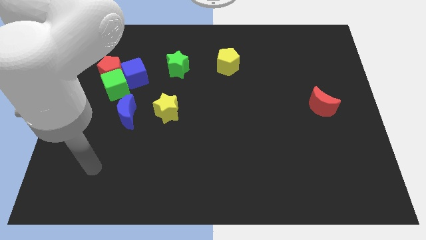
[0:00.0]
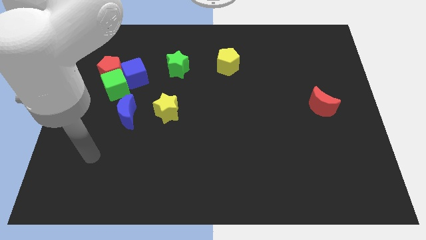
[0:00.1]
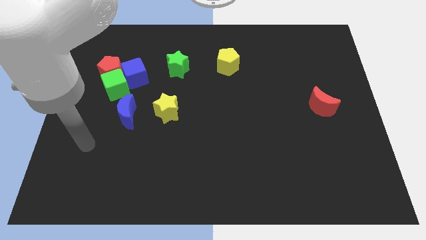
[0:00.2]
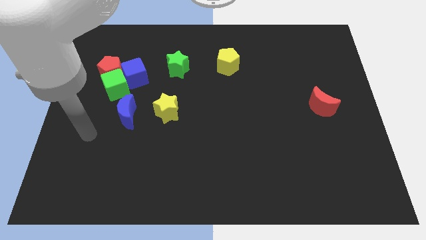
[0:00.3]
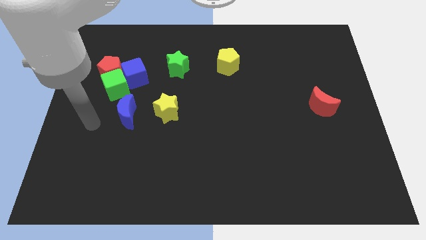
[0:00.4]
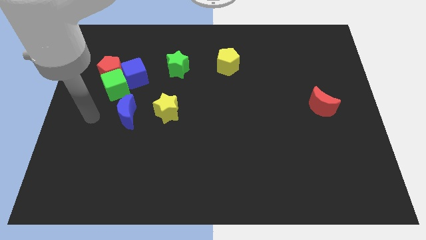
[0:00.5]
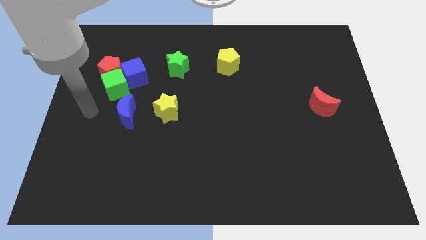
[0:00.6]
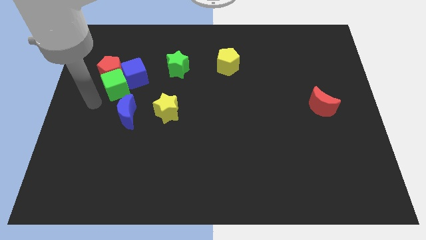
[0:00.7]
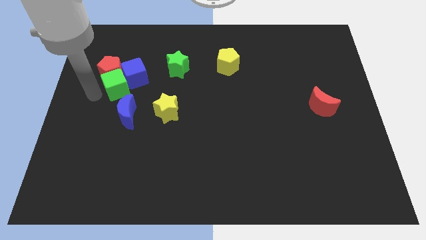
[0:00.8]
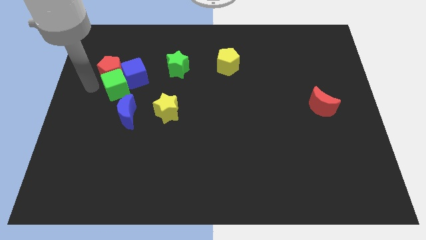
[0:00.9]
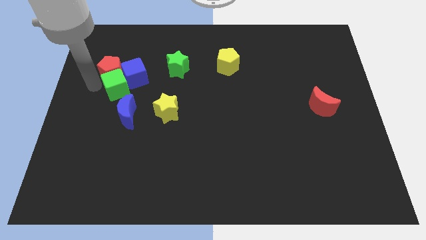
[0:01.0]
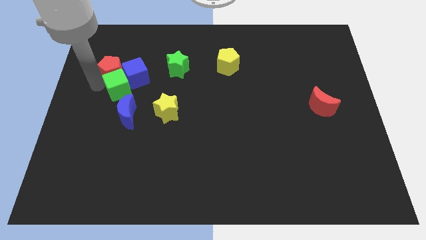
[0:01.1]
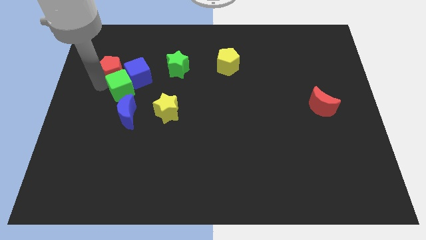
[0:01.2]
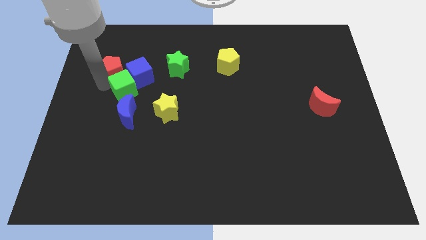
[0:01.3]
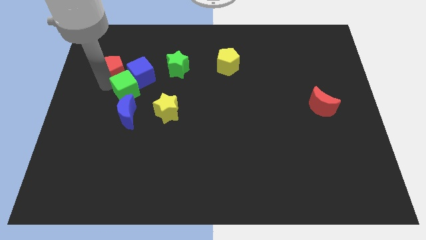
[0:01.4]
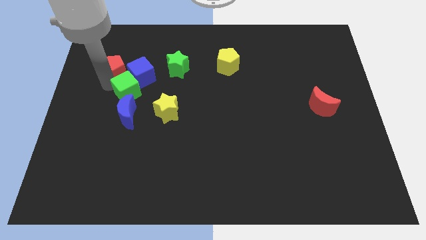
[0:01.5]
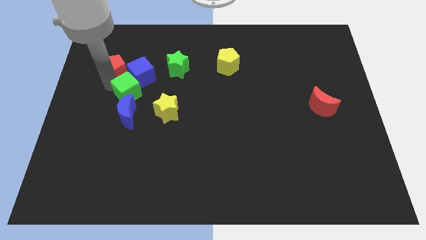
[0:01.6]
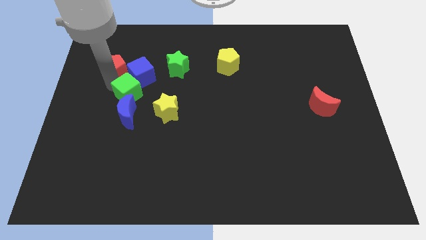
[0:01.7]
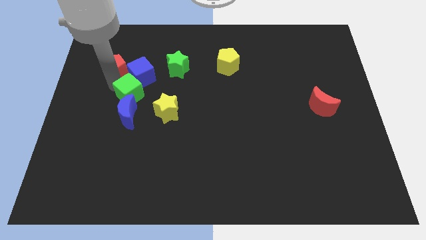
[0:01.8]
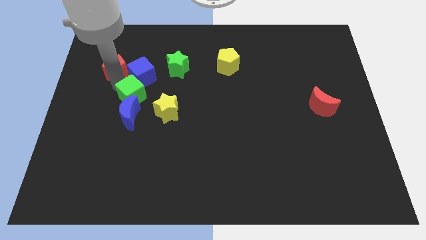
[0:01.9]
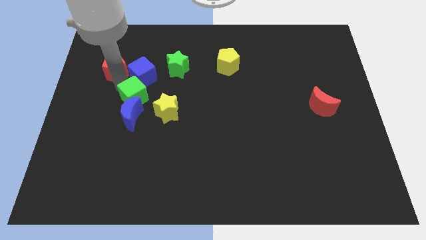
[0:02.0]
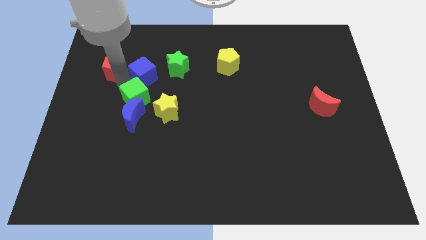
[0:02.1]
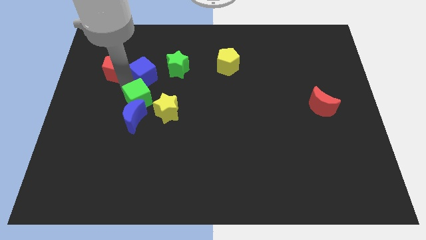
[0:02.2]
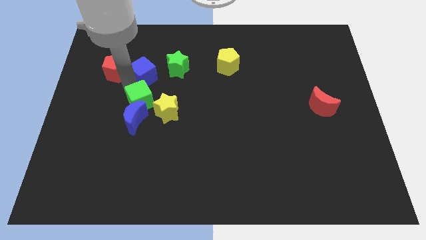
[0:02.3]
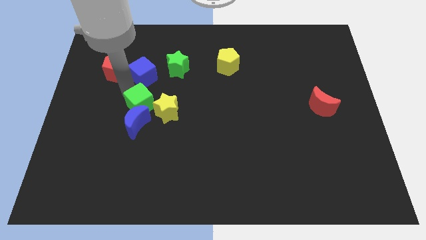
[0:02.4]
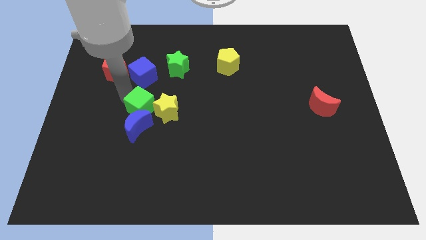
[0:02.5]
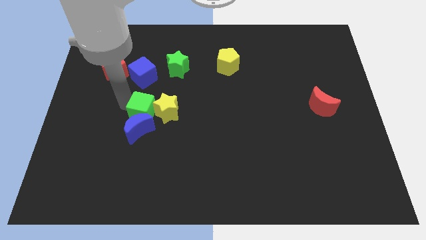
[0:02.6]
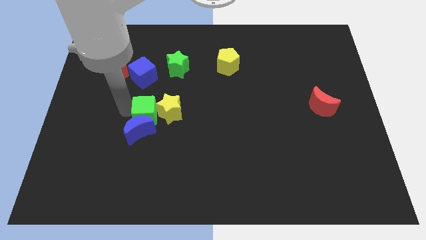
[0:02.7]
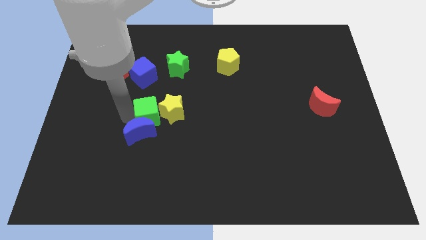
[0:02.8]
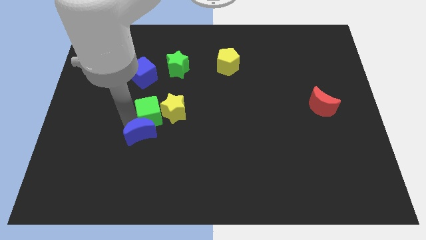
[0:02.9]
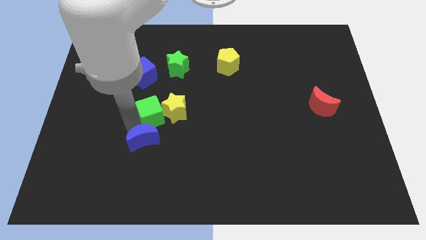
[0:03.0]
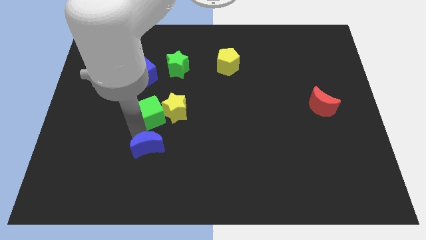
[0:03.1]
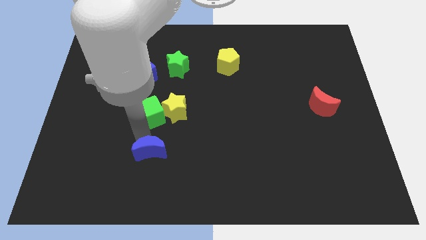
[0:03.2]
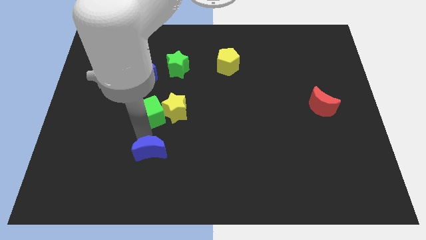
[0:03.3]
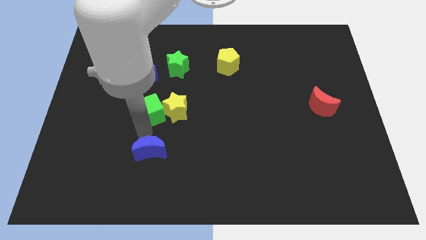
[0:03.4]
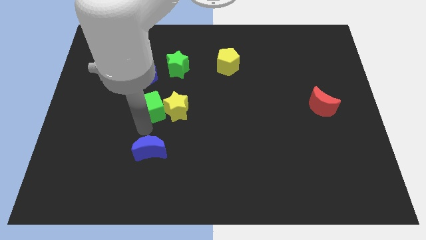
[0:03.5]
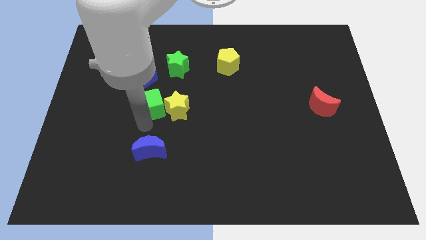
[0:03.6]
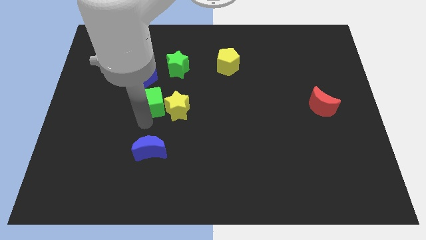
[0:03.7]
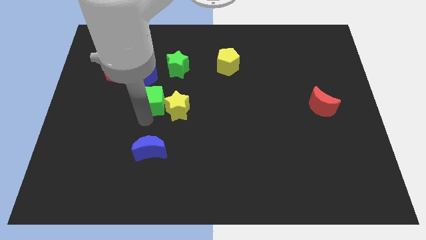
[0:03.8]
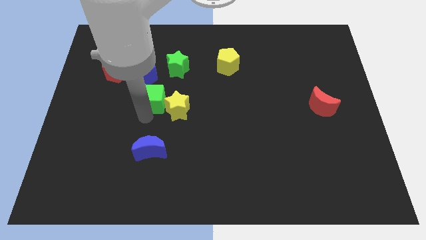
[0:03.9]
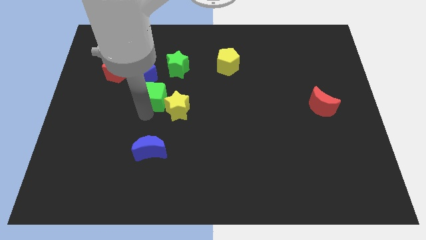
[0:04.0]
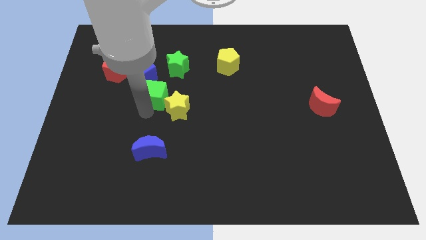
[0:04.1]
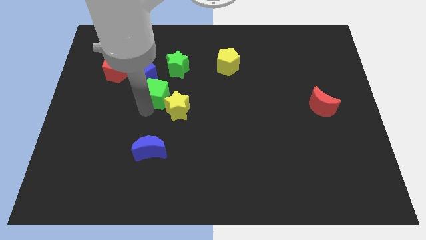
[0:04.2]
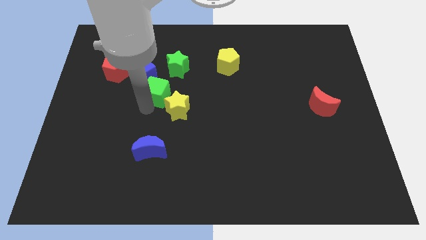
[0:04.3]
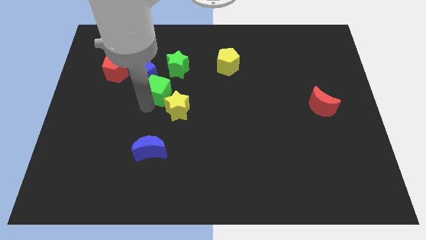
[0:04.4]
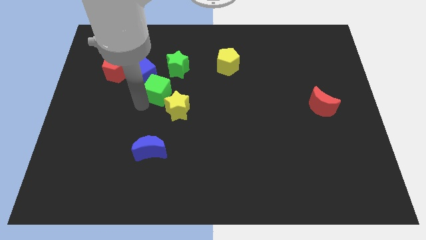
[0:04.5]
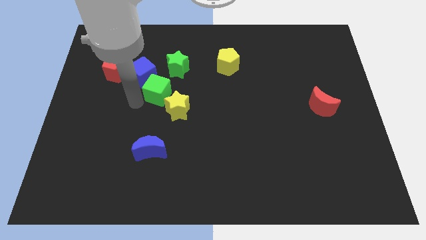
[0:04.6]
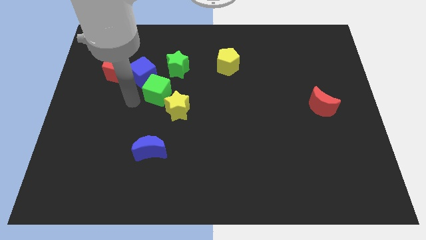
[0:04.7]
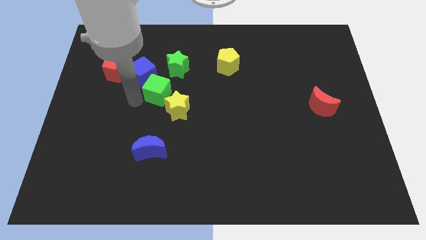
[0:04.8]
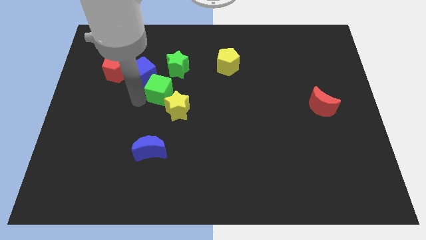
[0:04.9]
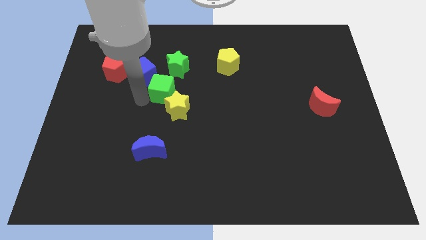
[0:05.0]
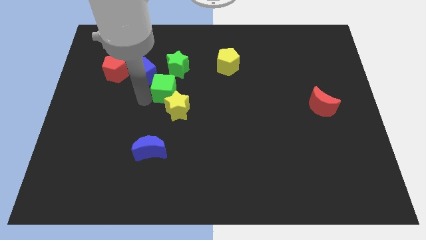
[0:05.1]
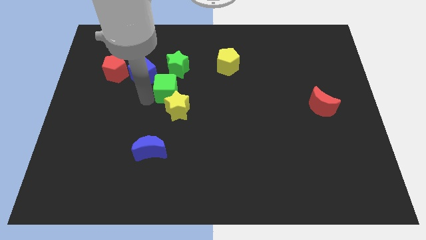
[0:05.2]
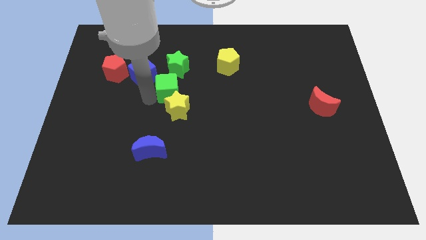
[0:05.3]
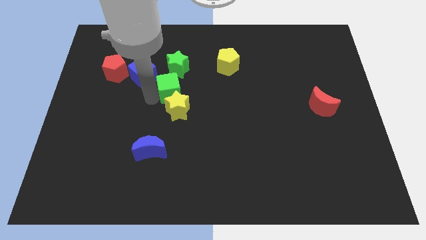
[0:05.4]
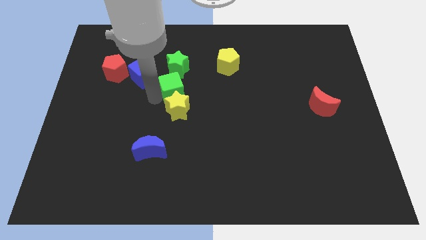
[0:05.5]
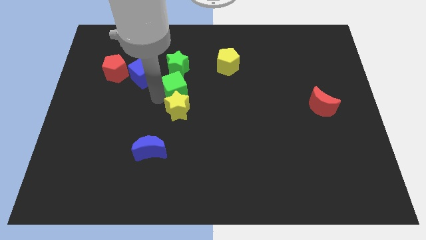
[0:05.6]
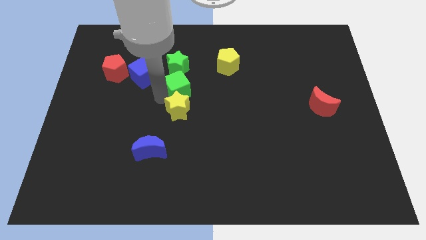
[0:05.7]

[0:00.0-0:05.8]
move the green cube to the bottom right side of the green star

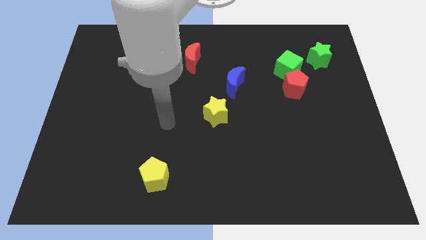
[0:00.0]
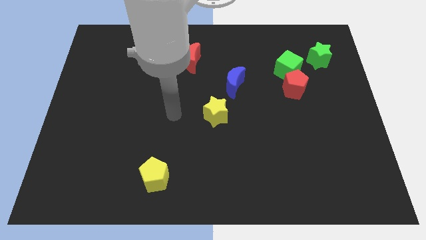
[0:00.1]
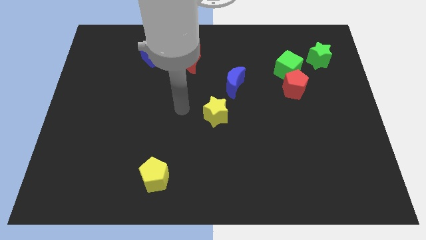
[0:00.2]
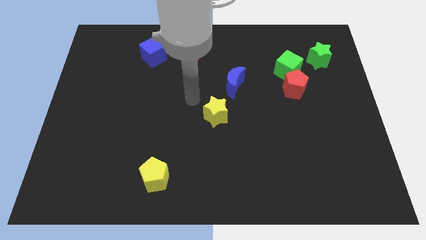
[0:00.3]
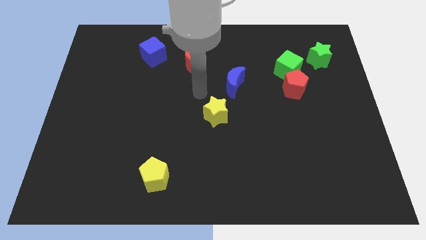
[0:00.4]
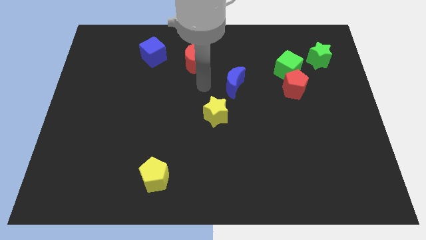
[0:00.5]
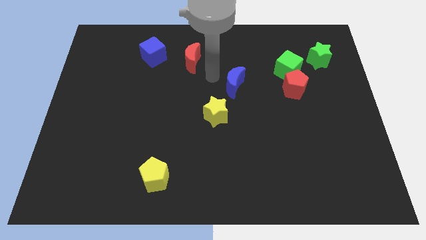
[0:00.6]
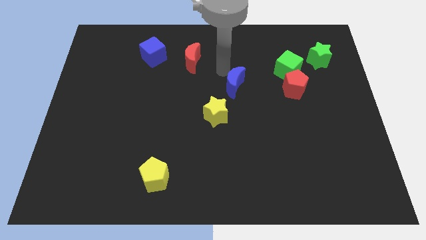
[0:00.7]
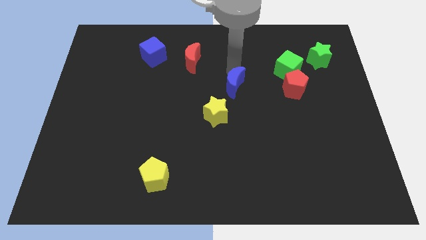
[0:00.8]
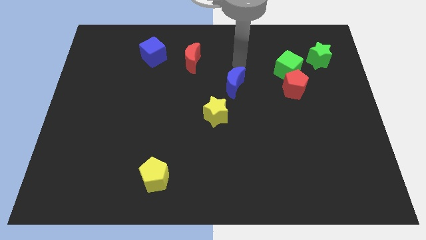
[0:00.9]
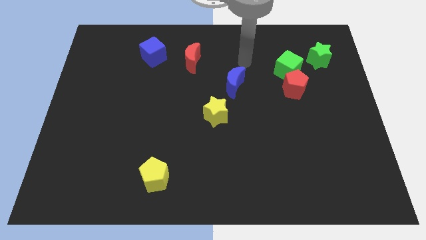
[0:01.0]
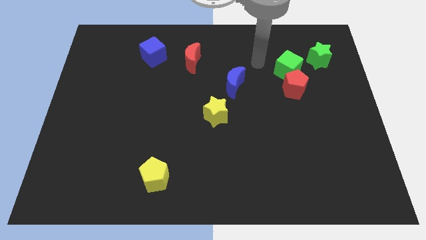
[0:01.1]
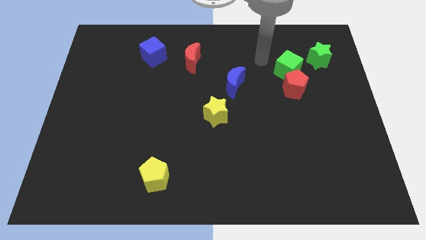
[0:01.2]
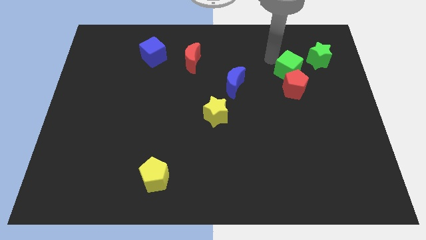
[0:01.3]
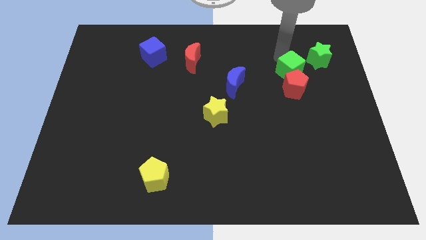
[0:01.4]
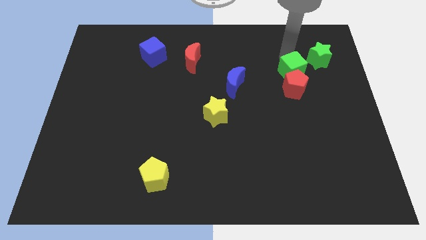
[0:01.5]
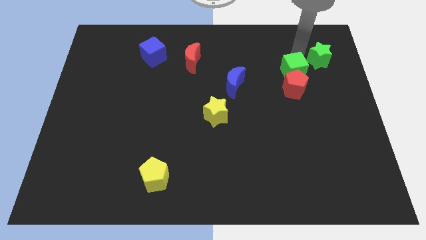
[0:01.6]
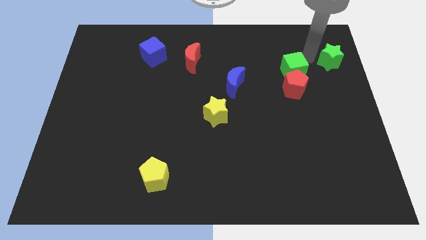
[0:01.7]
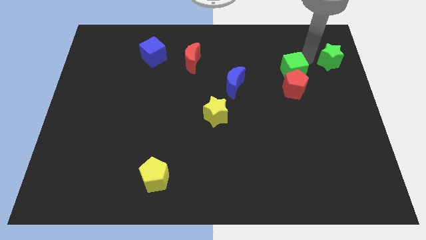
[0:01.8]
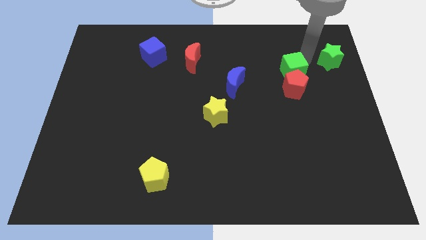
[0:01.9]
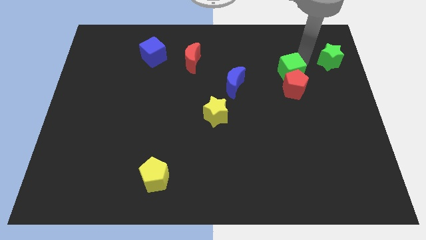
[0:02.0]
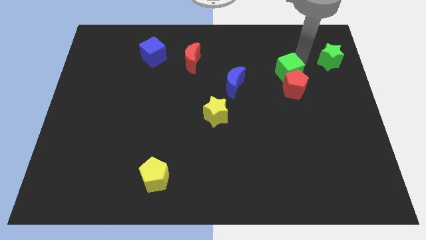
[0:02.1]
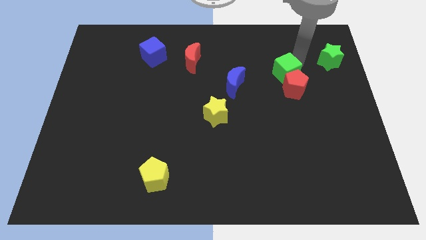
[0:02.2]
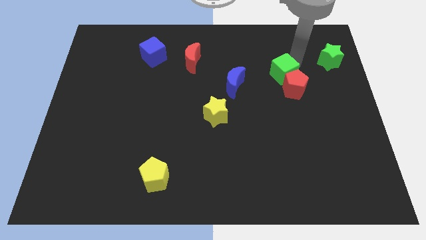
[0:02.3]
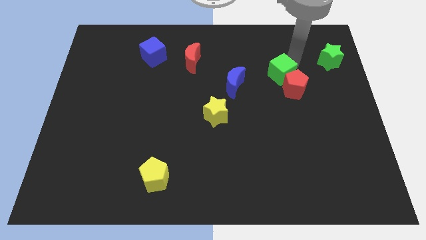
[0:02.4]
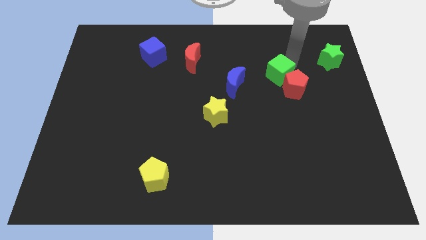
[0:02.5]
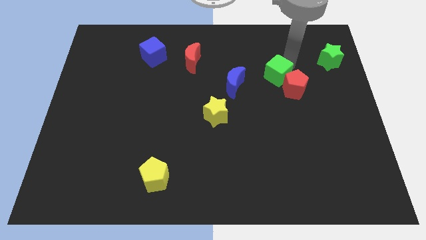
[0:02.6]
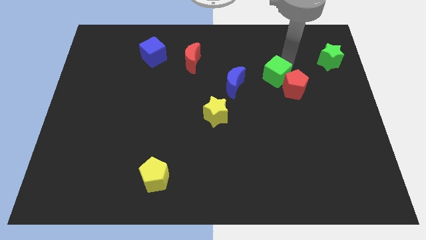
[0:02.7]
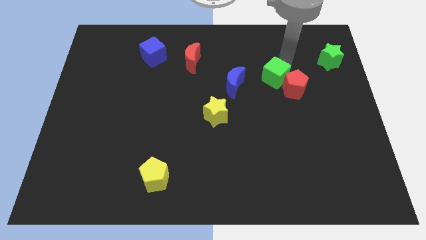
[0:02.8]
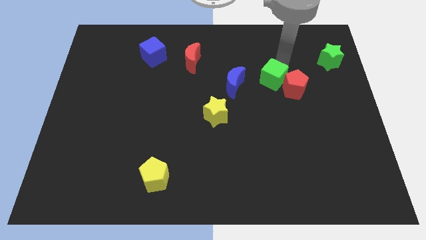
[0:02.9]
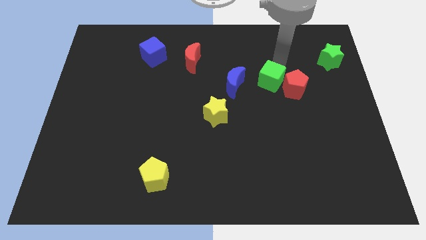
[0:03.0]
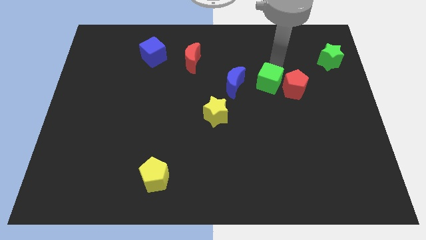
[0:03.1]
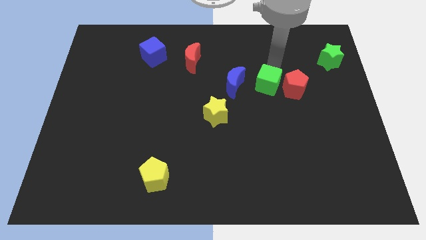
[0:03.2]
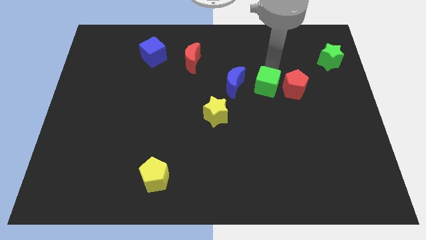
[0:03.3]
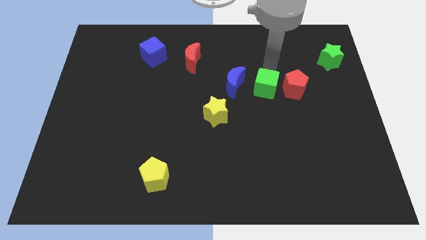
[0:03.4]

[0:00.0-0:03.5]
move the green cube diagonally down and to the left of the red pentagon
